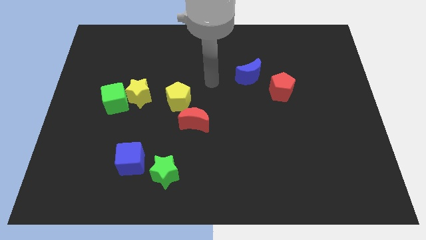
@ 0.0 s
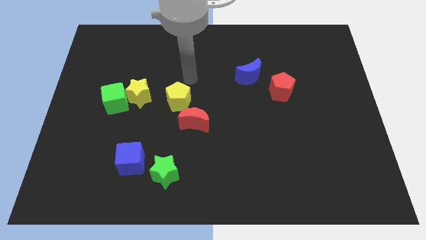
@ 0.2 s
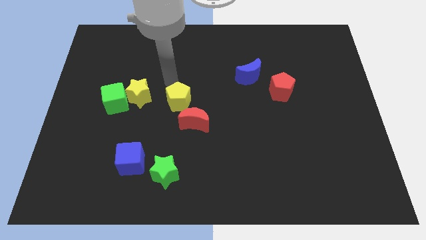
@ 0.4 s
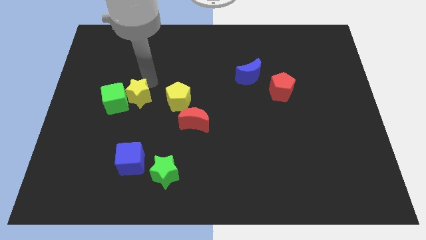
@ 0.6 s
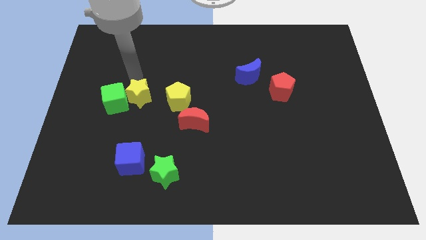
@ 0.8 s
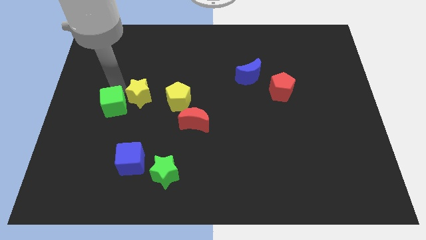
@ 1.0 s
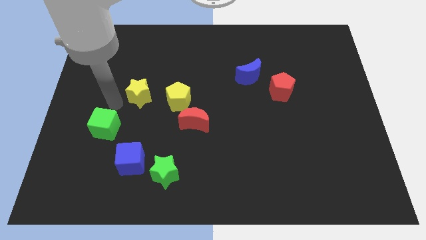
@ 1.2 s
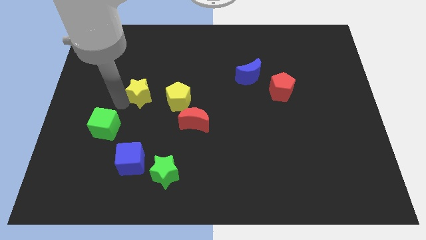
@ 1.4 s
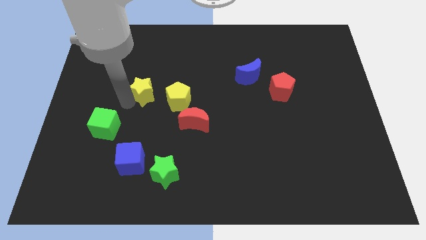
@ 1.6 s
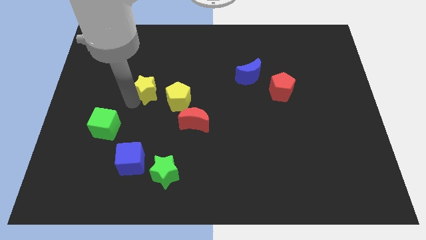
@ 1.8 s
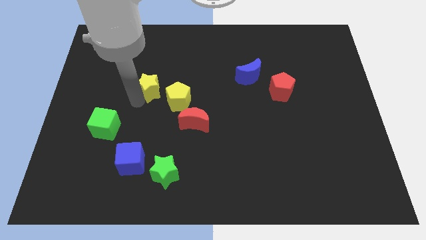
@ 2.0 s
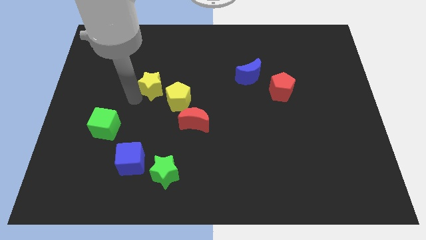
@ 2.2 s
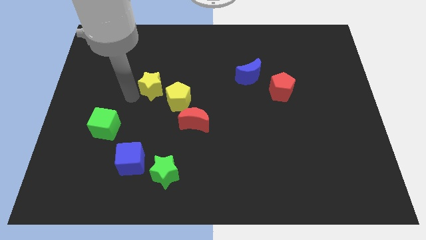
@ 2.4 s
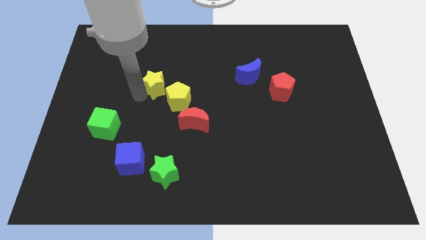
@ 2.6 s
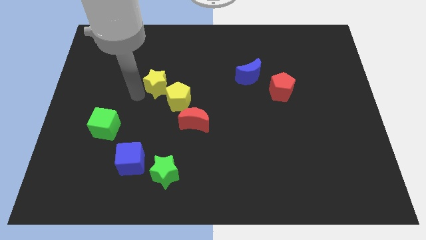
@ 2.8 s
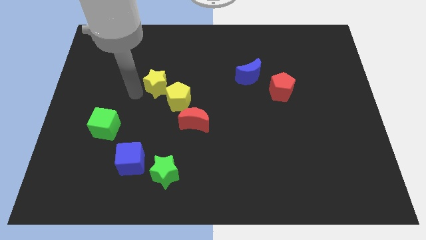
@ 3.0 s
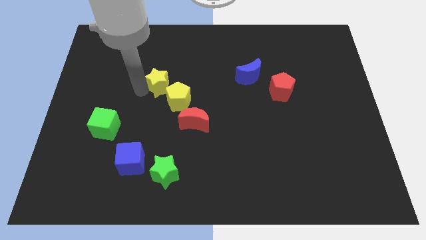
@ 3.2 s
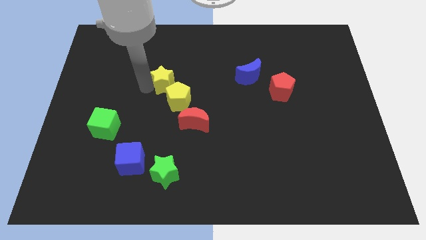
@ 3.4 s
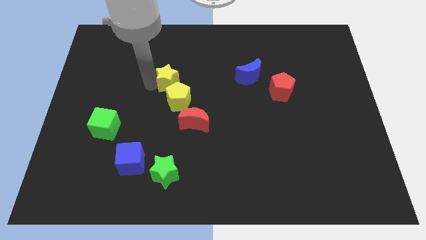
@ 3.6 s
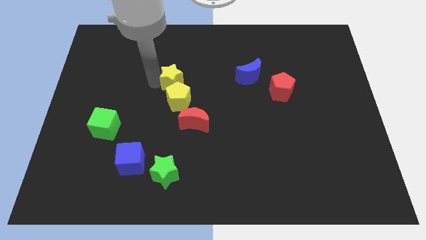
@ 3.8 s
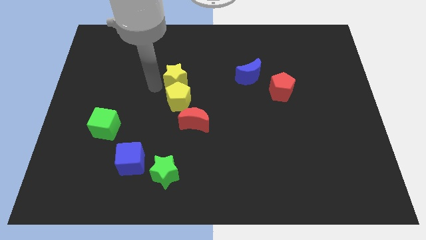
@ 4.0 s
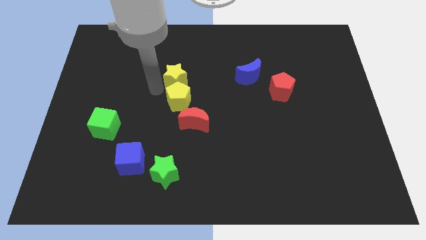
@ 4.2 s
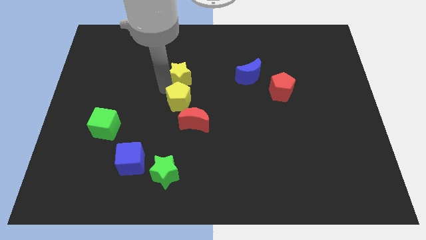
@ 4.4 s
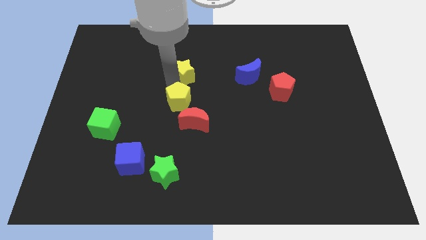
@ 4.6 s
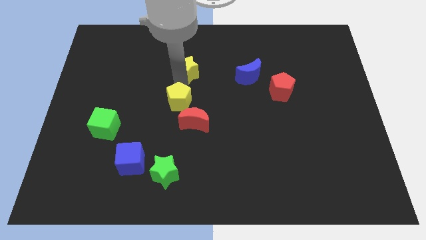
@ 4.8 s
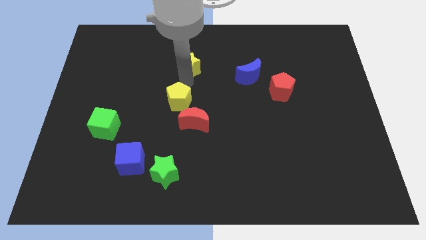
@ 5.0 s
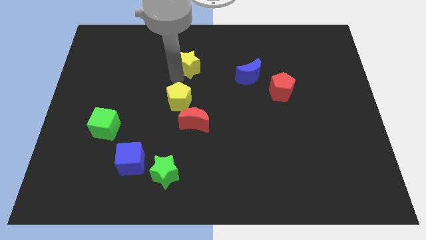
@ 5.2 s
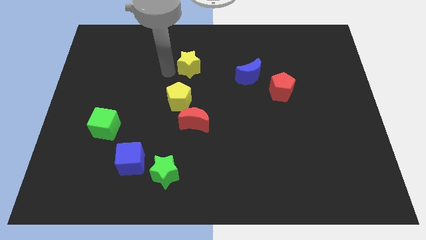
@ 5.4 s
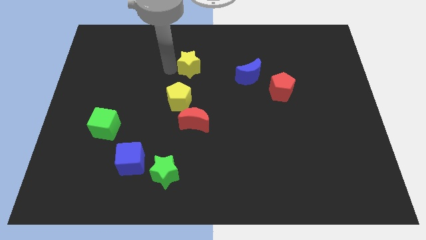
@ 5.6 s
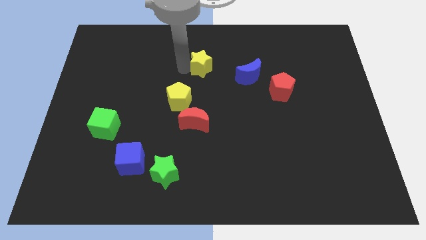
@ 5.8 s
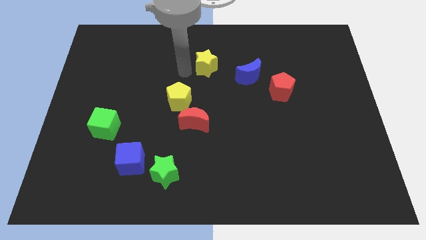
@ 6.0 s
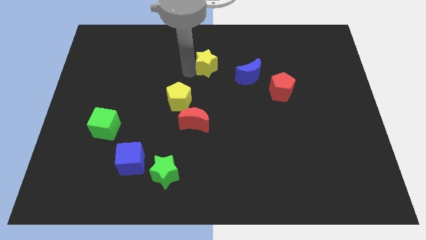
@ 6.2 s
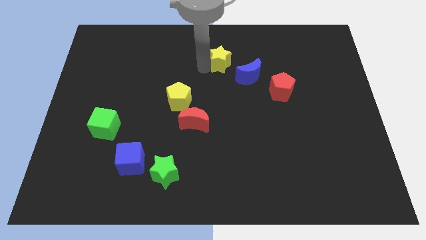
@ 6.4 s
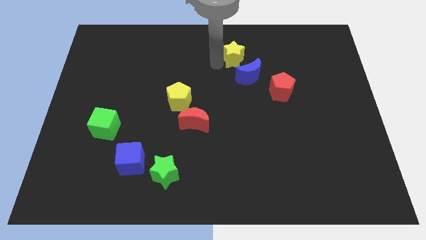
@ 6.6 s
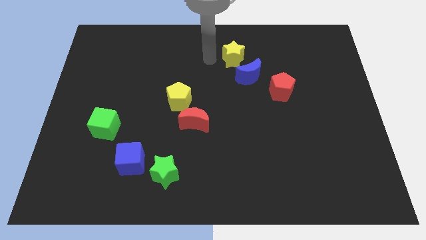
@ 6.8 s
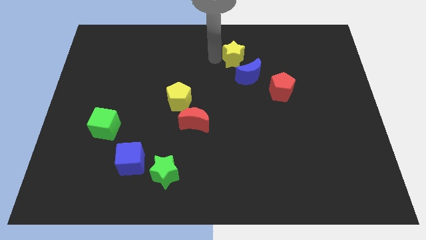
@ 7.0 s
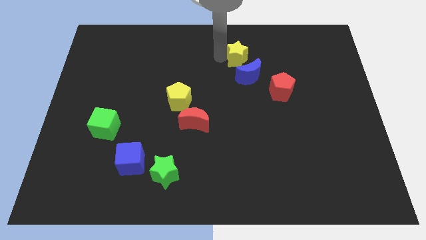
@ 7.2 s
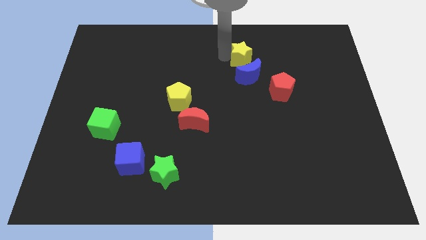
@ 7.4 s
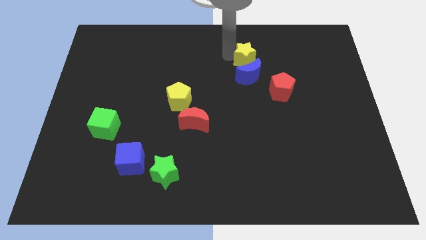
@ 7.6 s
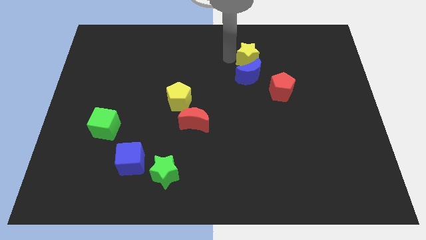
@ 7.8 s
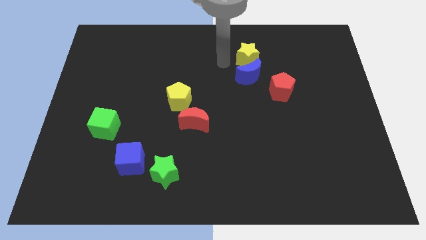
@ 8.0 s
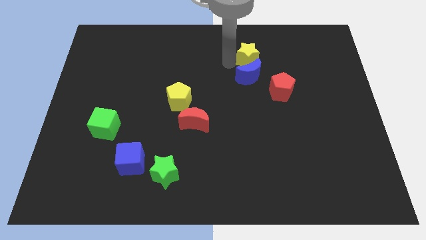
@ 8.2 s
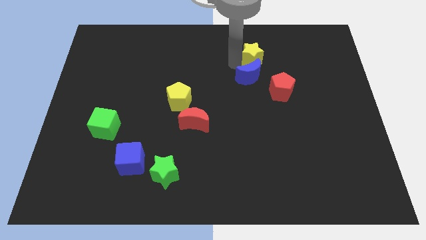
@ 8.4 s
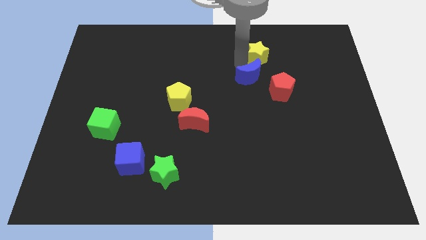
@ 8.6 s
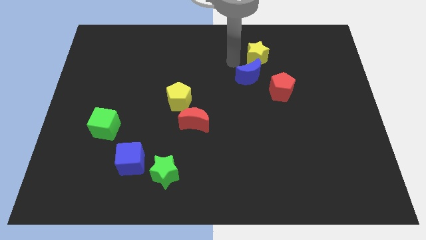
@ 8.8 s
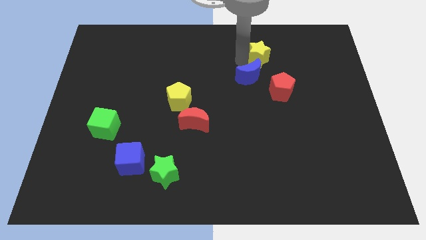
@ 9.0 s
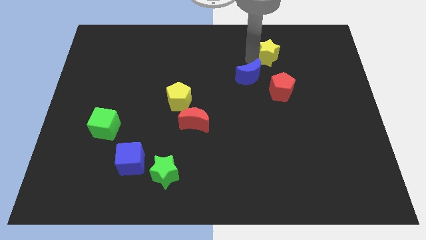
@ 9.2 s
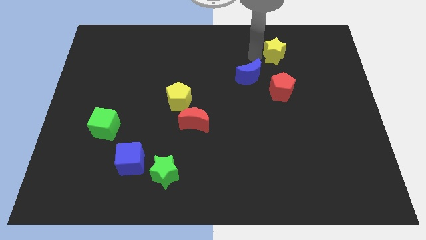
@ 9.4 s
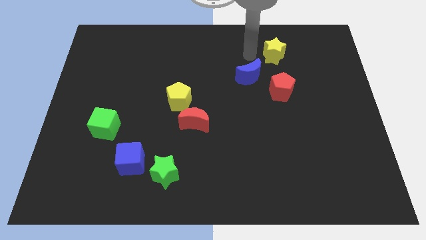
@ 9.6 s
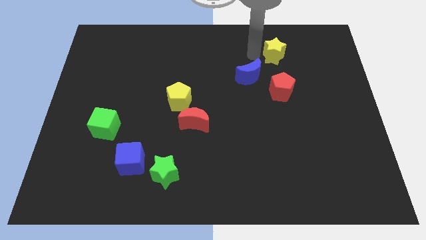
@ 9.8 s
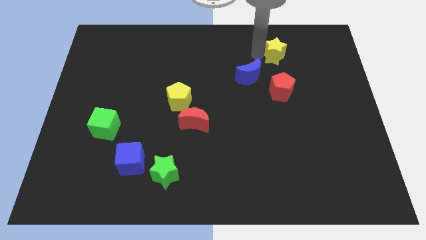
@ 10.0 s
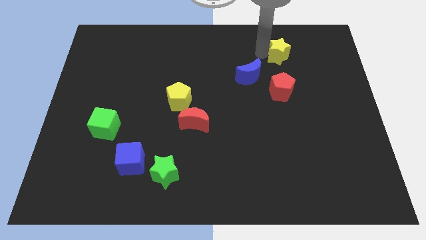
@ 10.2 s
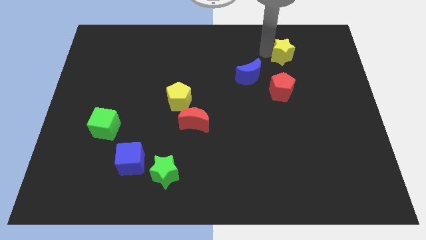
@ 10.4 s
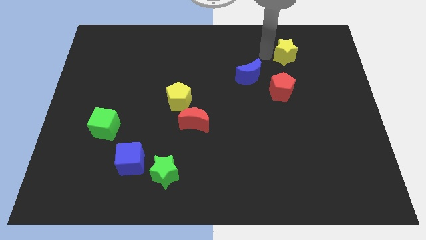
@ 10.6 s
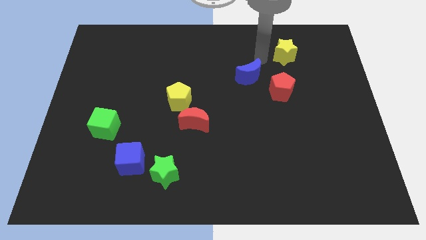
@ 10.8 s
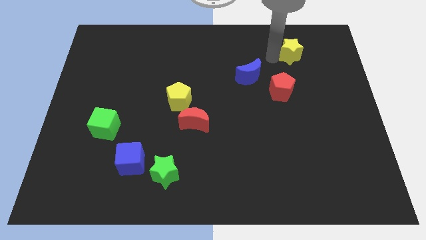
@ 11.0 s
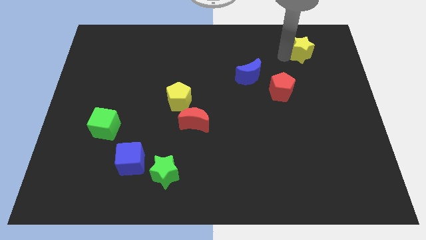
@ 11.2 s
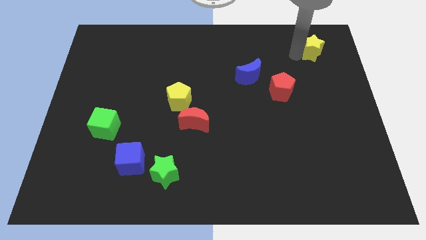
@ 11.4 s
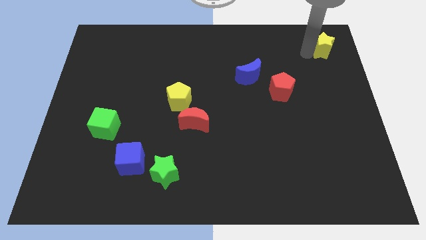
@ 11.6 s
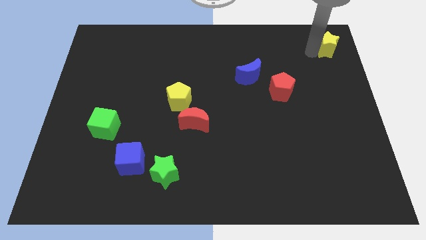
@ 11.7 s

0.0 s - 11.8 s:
move the yellow star to the top right
